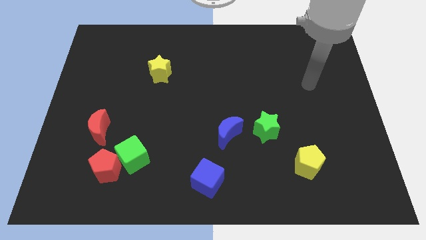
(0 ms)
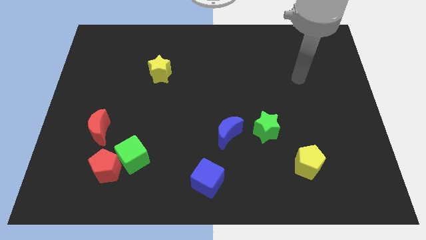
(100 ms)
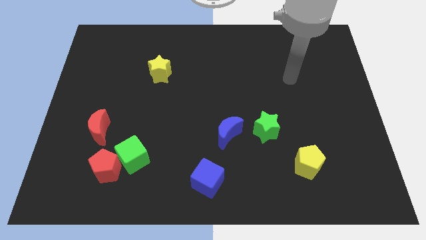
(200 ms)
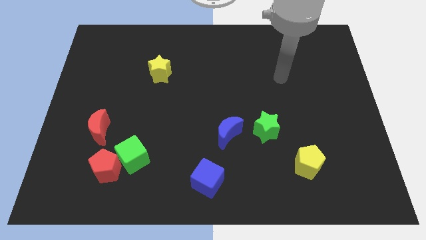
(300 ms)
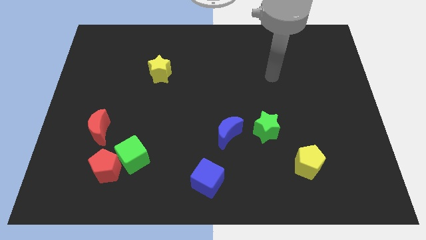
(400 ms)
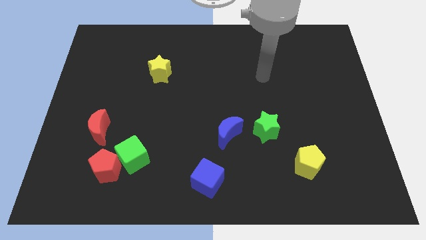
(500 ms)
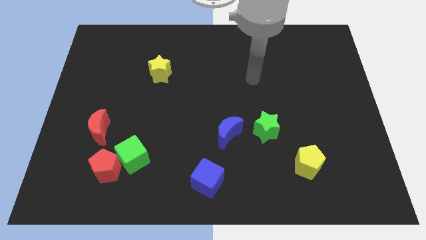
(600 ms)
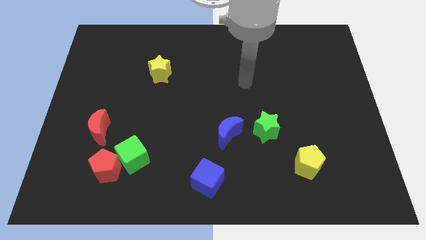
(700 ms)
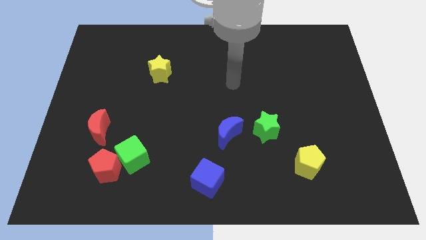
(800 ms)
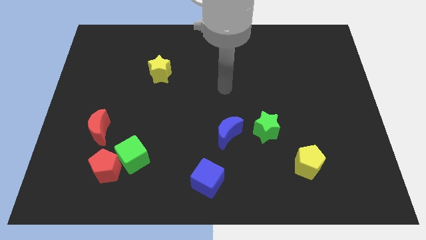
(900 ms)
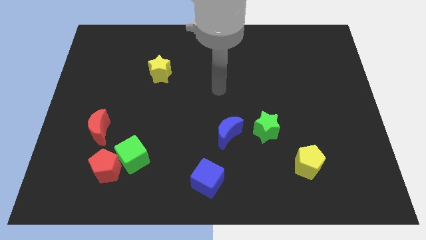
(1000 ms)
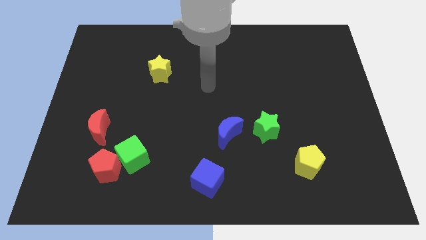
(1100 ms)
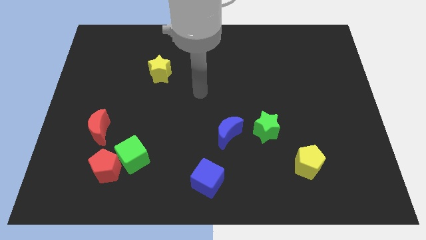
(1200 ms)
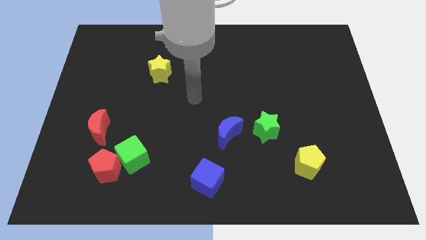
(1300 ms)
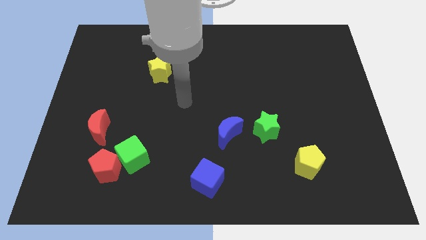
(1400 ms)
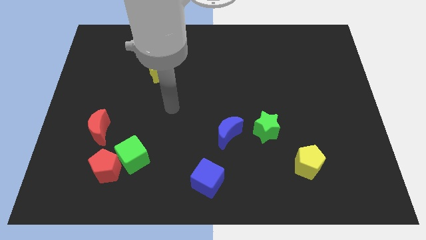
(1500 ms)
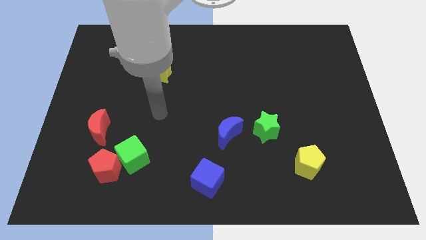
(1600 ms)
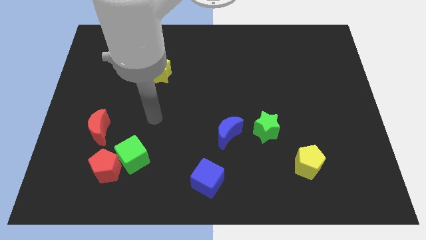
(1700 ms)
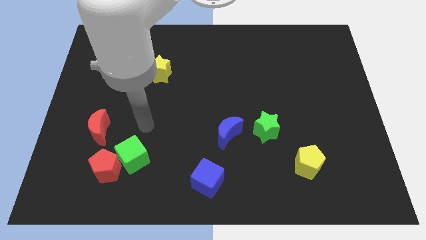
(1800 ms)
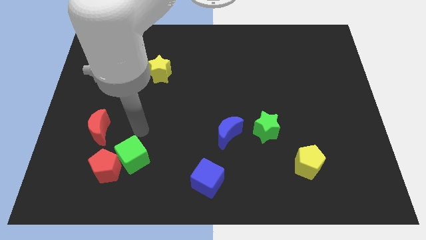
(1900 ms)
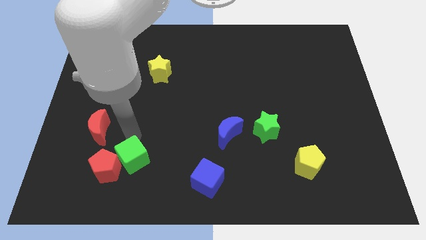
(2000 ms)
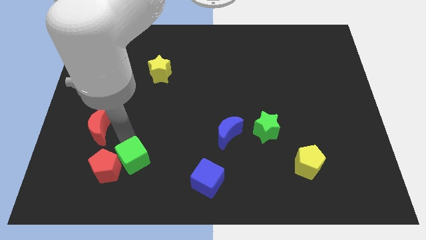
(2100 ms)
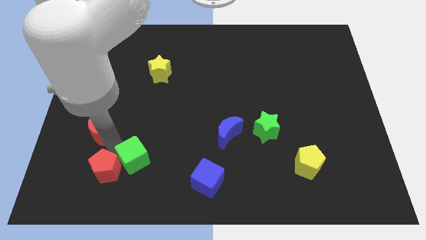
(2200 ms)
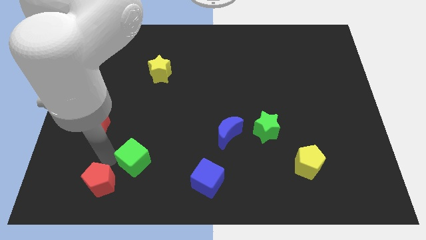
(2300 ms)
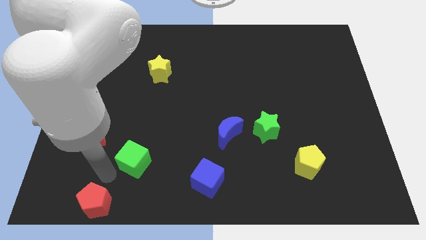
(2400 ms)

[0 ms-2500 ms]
pull the green cube apart from the red pentagon

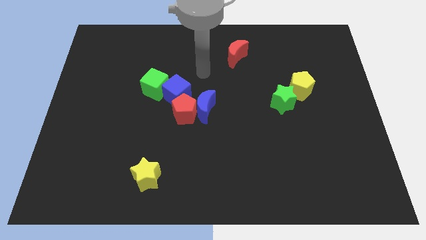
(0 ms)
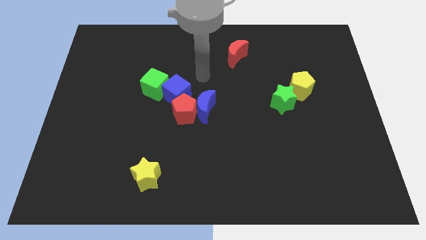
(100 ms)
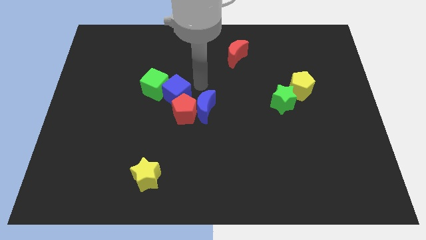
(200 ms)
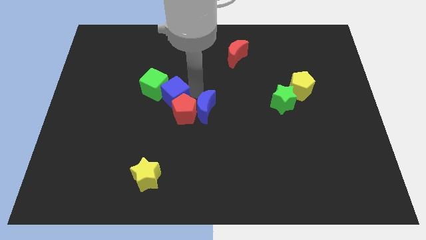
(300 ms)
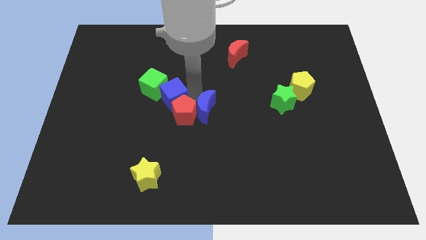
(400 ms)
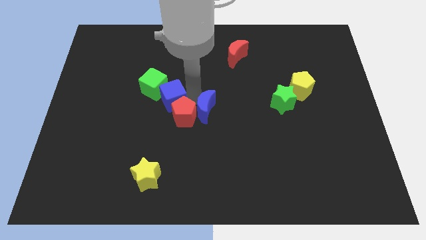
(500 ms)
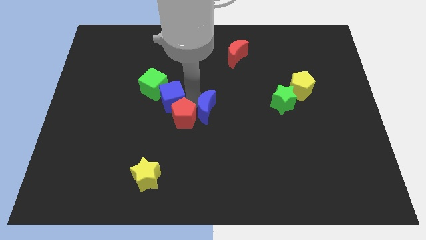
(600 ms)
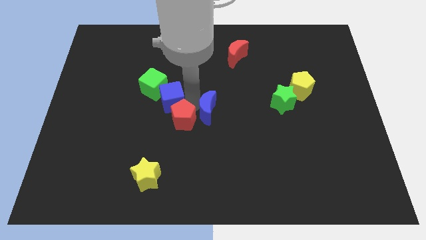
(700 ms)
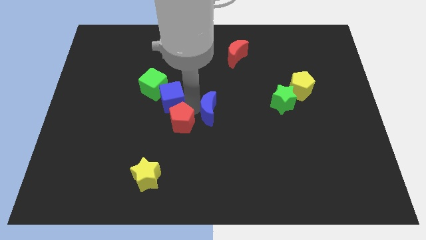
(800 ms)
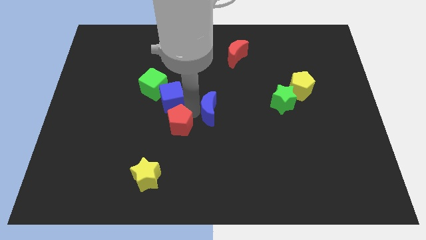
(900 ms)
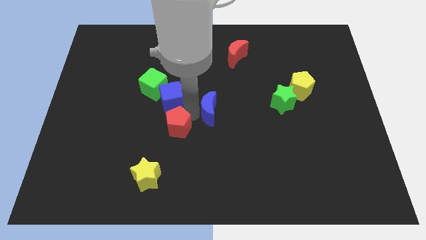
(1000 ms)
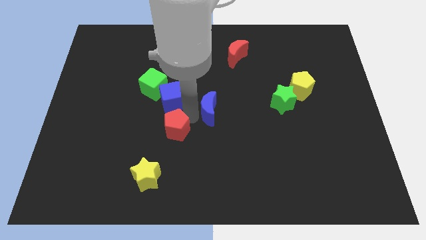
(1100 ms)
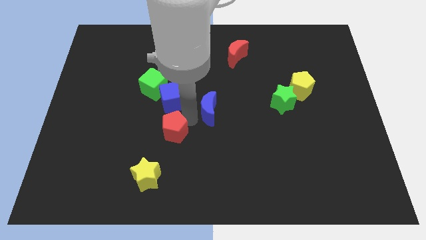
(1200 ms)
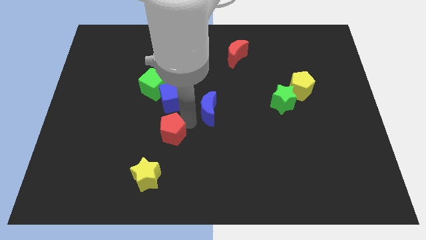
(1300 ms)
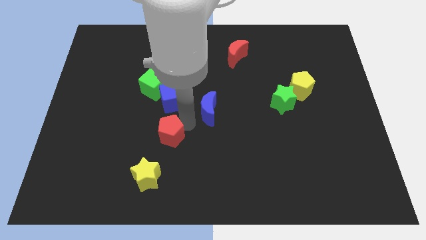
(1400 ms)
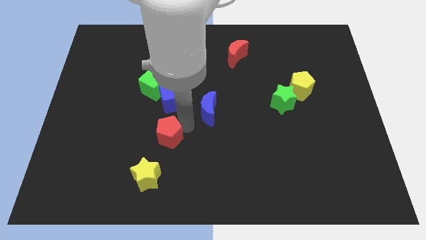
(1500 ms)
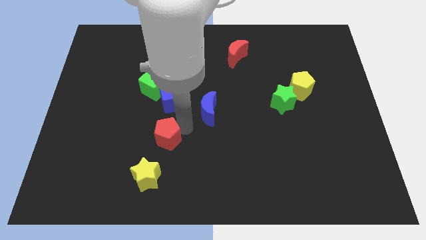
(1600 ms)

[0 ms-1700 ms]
separate the red pentagon from the blue moon and blue cube

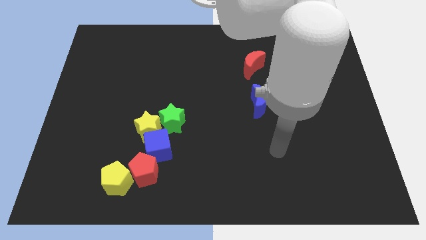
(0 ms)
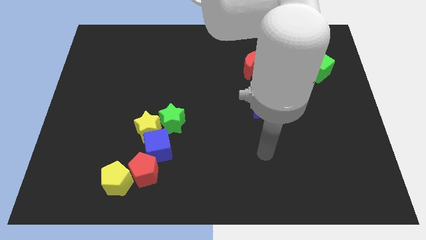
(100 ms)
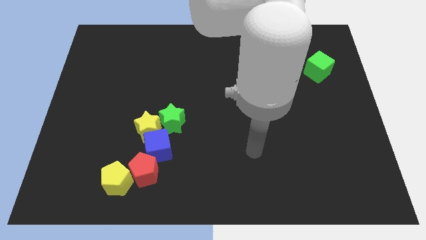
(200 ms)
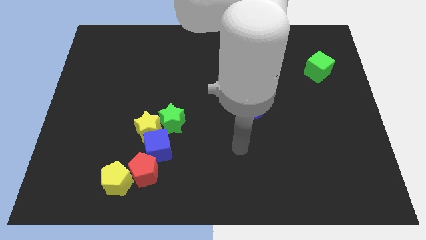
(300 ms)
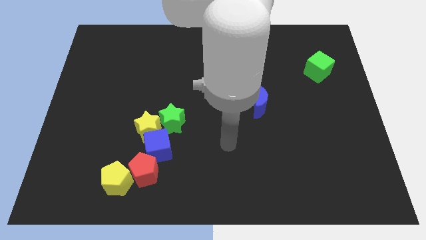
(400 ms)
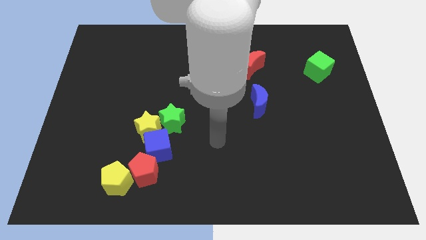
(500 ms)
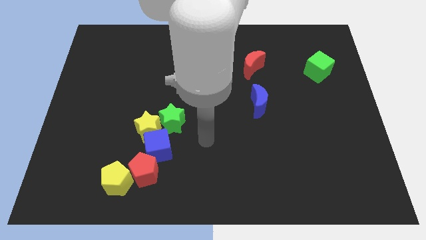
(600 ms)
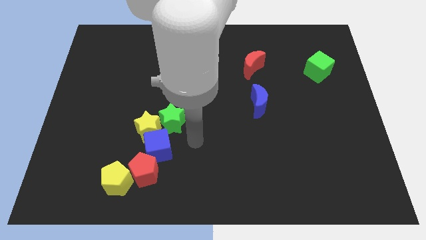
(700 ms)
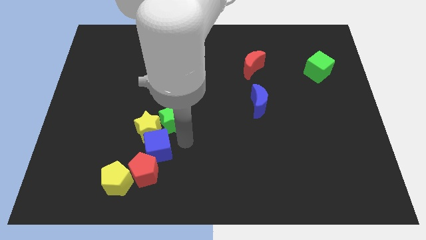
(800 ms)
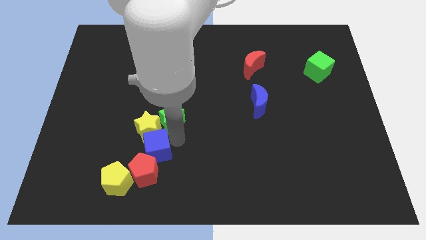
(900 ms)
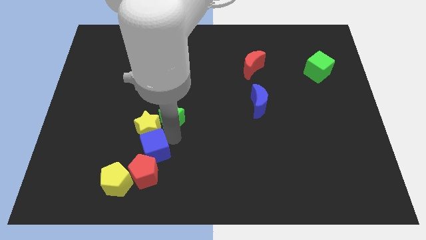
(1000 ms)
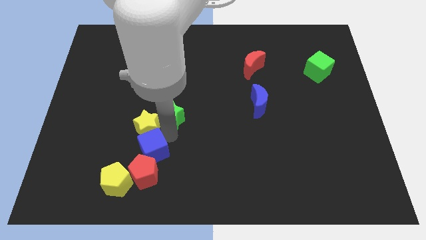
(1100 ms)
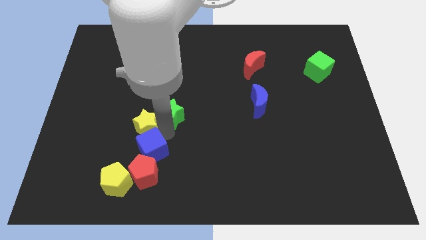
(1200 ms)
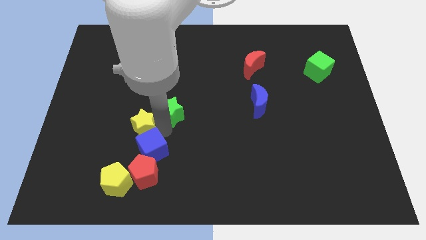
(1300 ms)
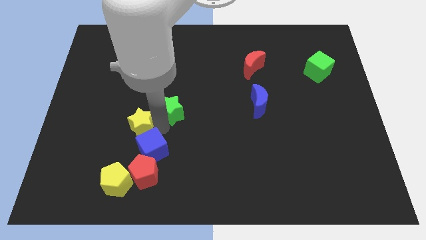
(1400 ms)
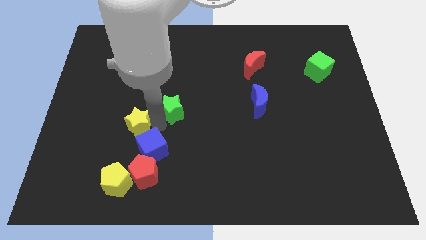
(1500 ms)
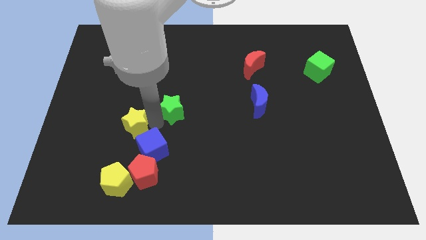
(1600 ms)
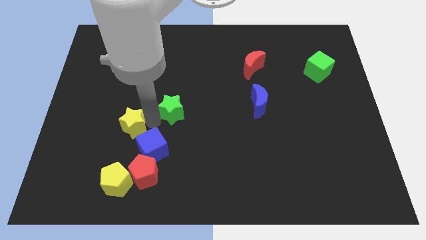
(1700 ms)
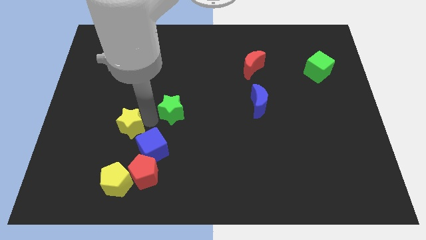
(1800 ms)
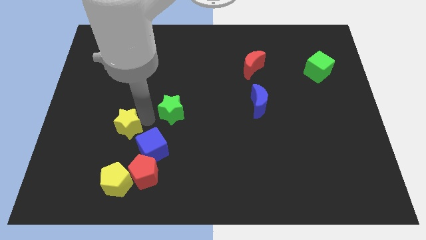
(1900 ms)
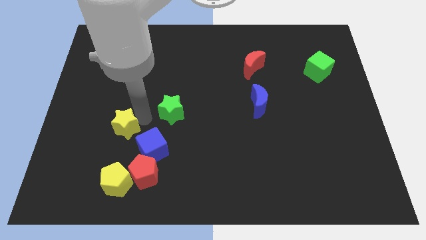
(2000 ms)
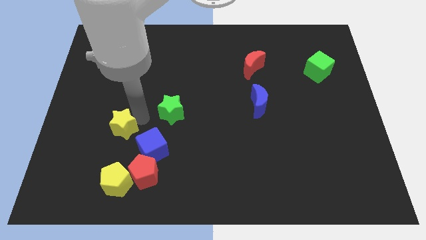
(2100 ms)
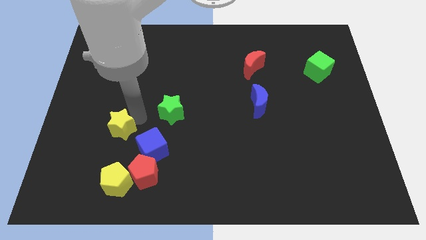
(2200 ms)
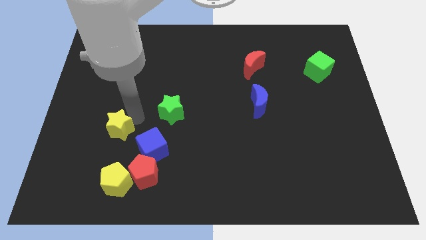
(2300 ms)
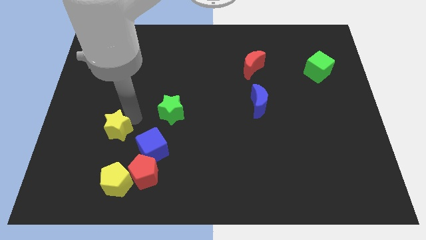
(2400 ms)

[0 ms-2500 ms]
pull the yellow star apart from the green star and blue cube

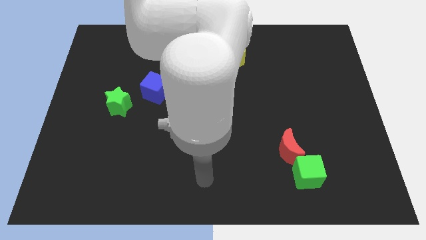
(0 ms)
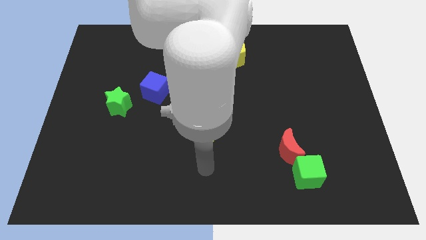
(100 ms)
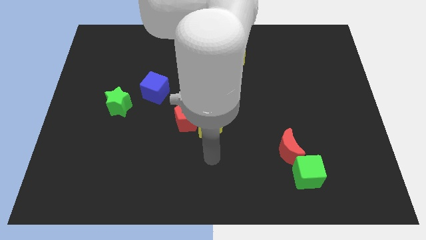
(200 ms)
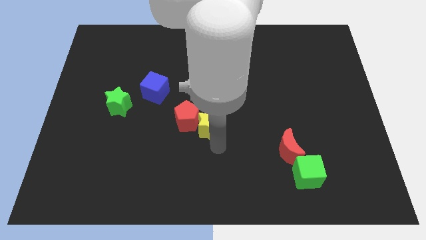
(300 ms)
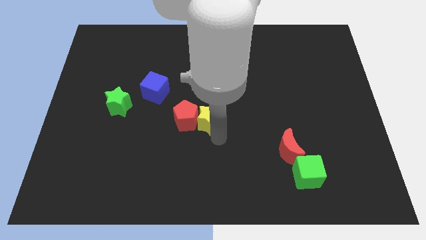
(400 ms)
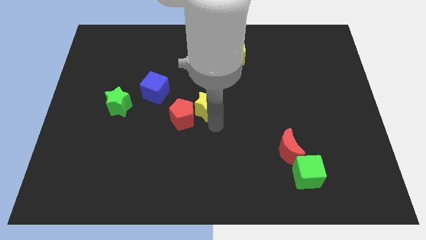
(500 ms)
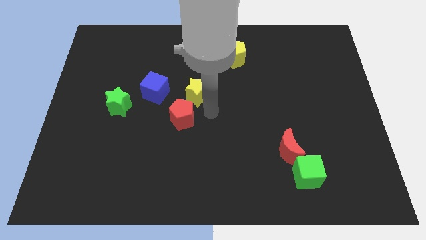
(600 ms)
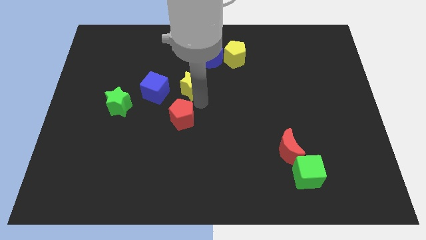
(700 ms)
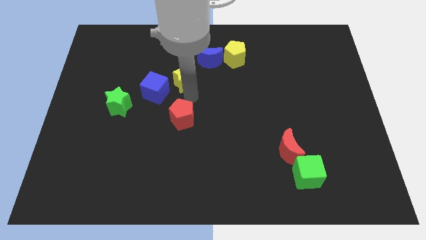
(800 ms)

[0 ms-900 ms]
separate the red pentagon from the yellow star

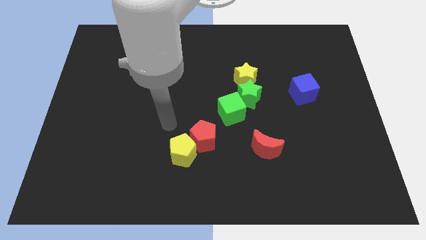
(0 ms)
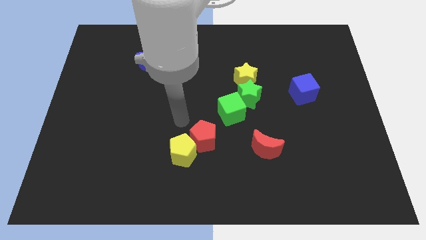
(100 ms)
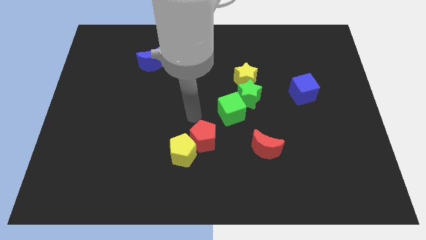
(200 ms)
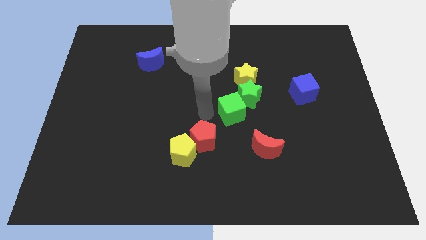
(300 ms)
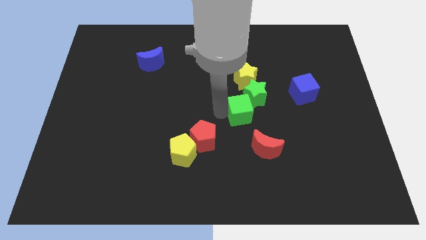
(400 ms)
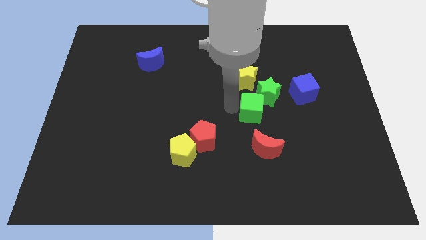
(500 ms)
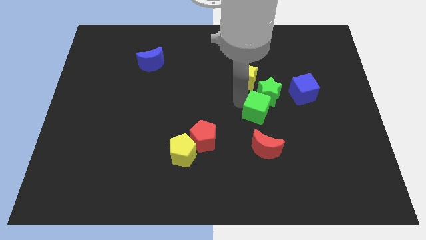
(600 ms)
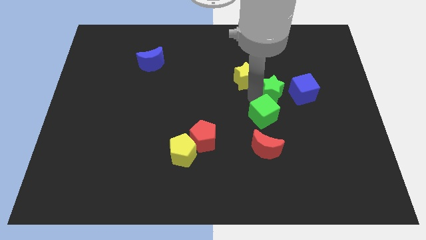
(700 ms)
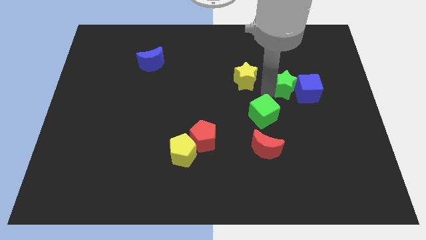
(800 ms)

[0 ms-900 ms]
move the yellow star away from the green star

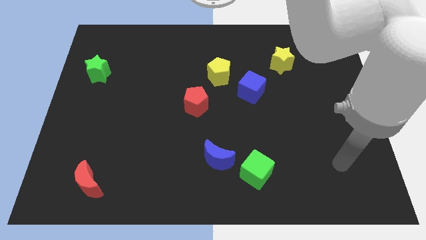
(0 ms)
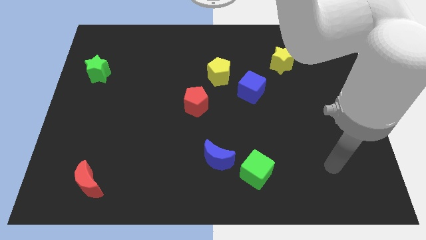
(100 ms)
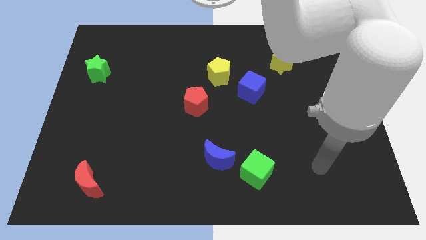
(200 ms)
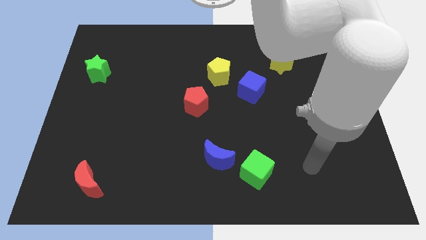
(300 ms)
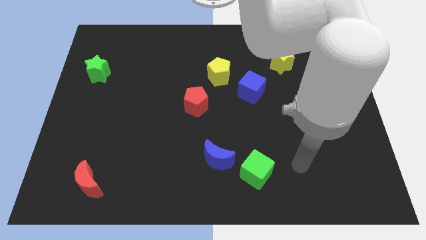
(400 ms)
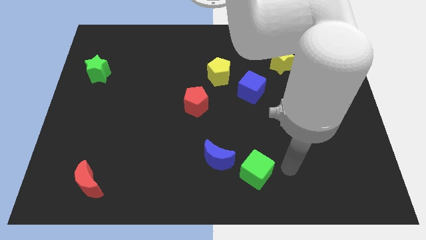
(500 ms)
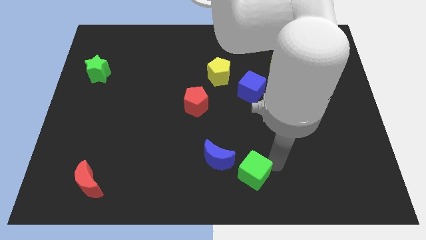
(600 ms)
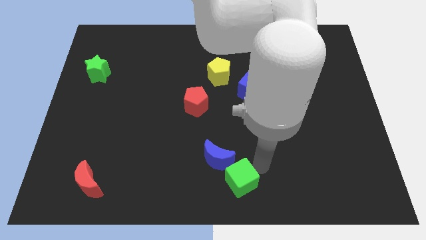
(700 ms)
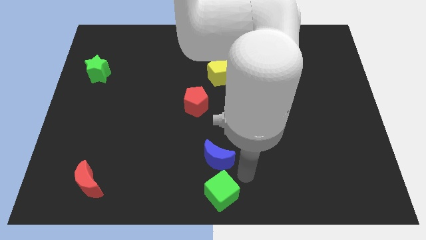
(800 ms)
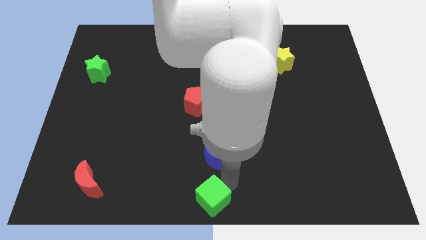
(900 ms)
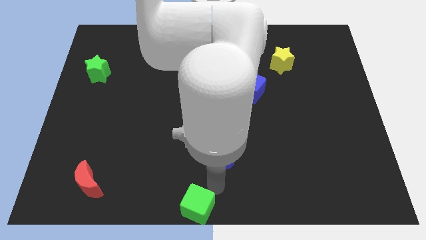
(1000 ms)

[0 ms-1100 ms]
move the blue moon away from the green cube
